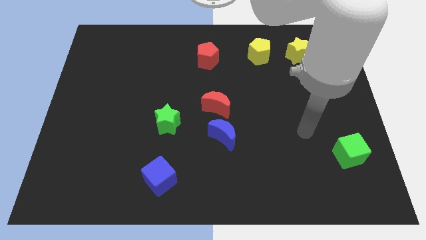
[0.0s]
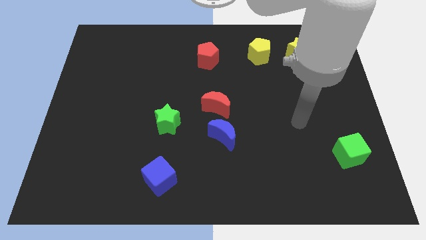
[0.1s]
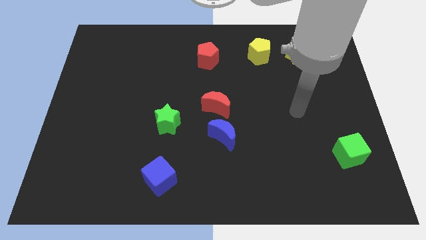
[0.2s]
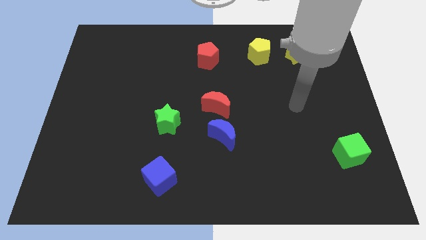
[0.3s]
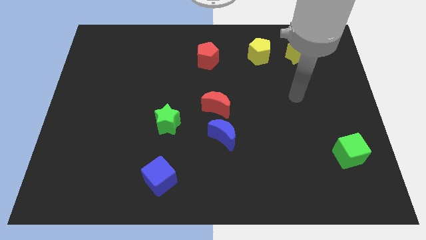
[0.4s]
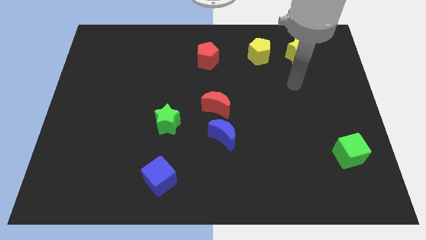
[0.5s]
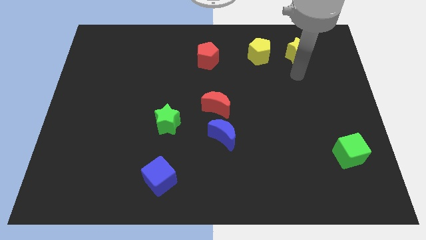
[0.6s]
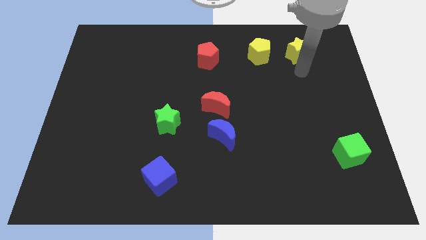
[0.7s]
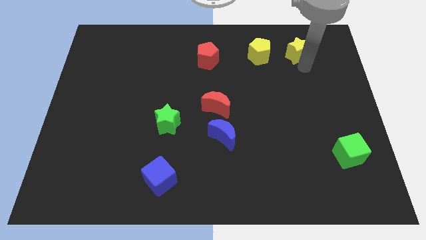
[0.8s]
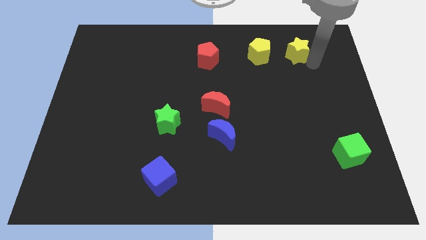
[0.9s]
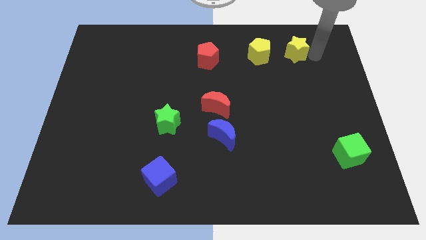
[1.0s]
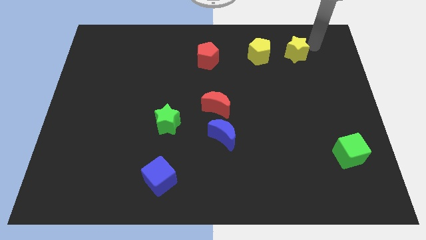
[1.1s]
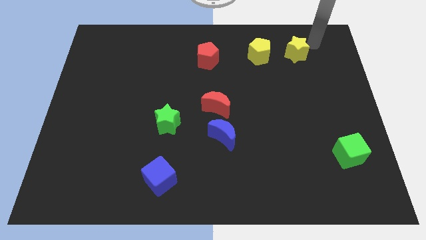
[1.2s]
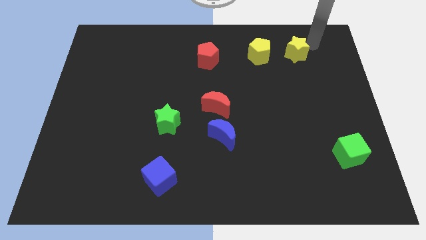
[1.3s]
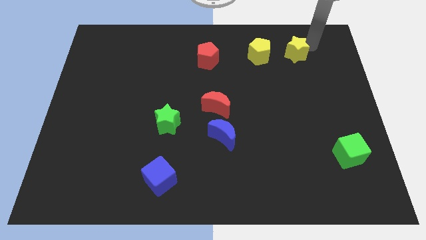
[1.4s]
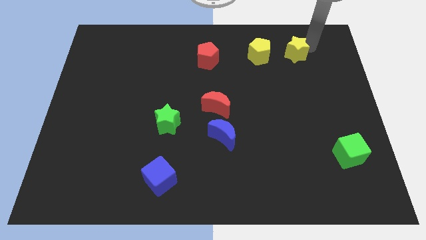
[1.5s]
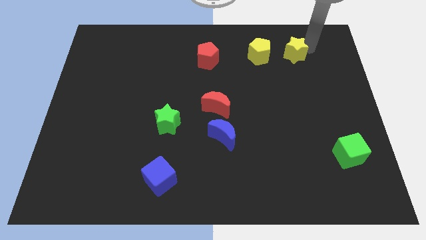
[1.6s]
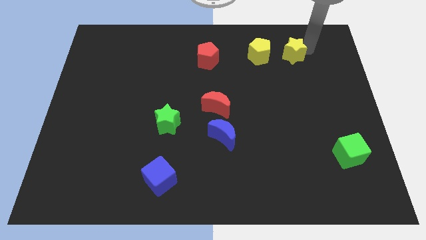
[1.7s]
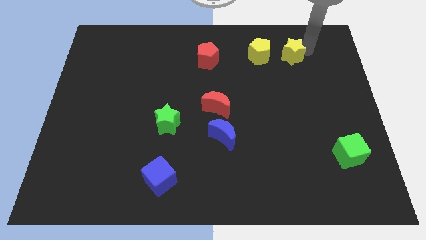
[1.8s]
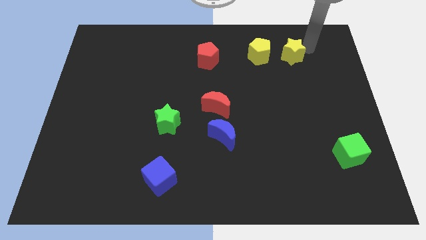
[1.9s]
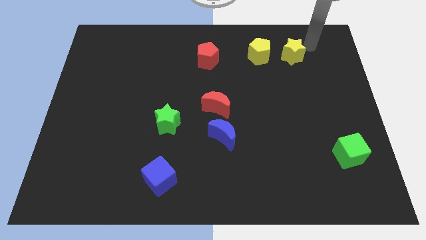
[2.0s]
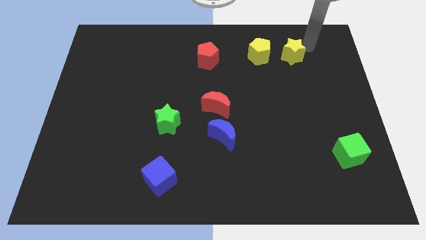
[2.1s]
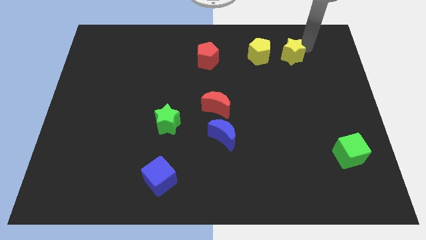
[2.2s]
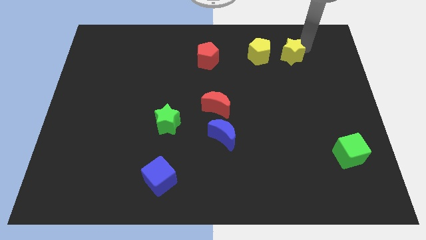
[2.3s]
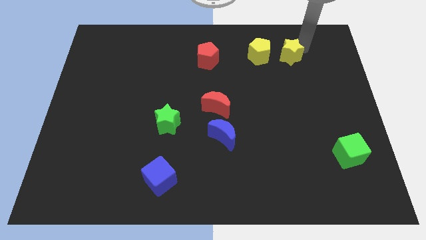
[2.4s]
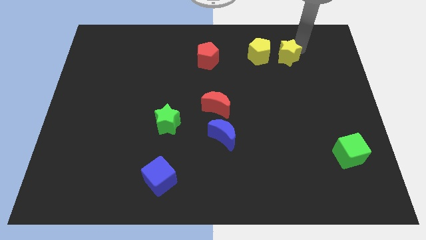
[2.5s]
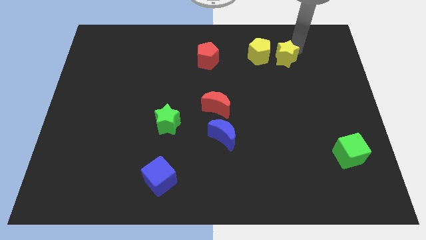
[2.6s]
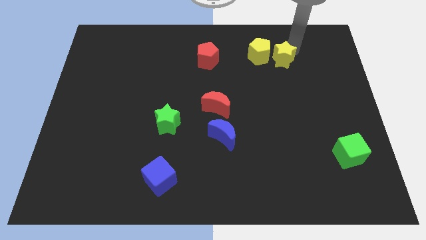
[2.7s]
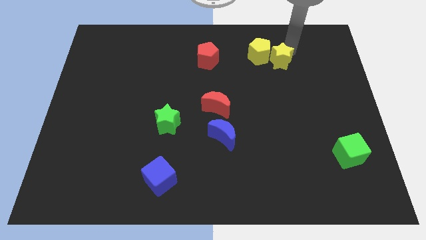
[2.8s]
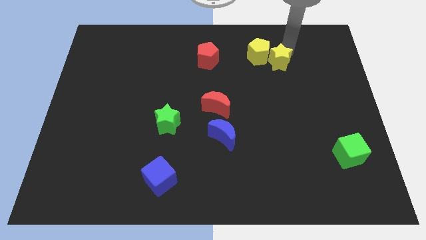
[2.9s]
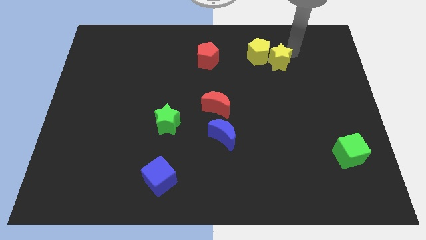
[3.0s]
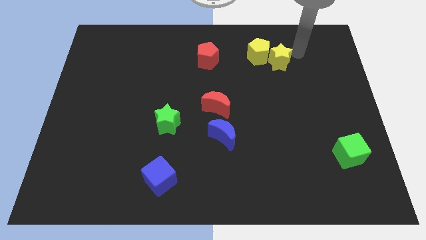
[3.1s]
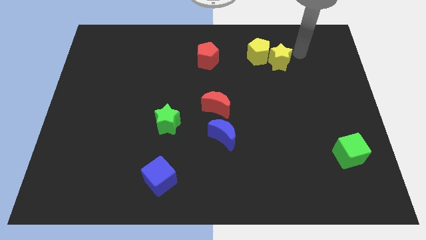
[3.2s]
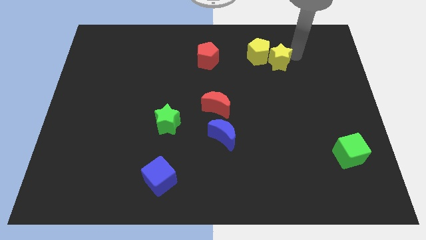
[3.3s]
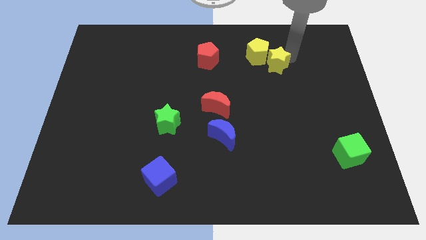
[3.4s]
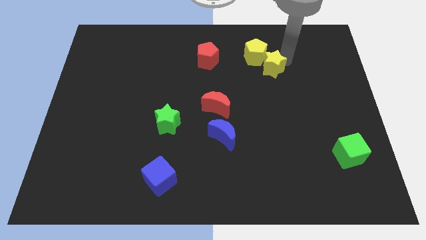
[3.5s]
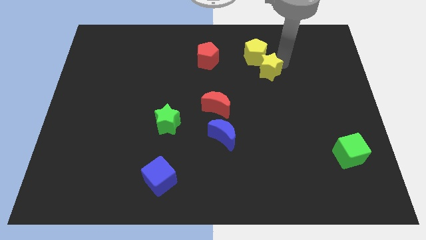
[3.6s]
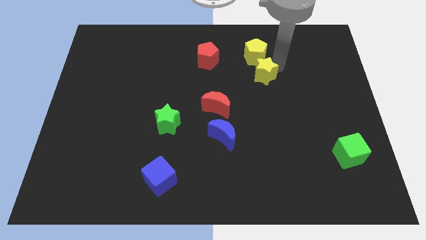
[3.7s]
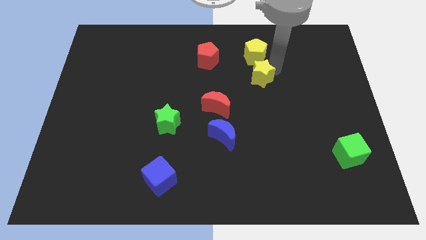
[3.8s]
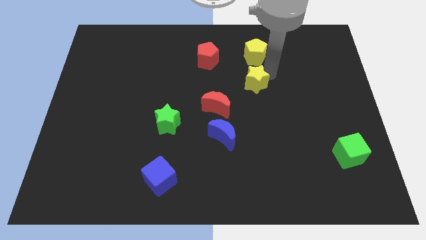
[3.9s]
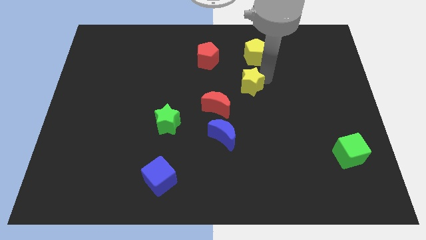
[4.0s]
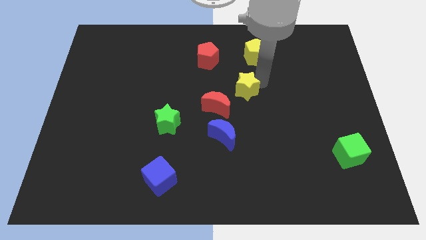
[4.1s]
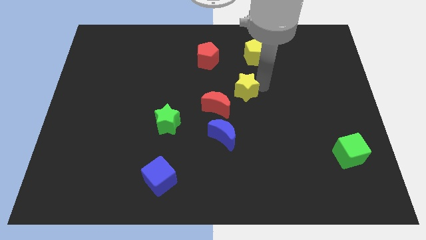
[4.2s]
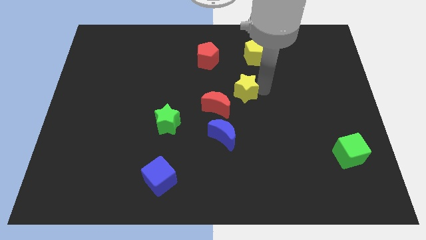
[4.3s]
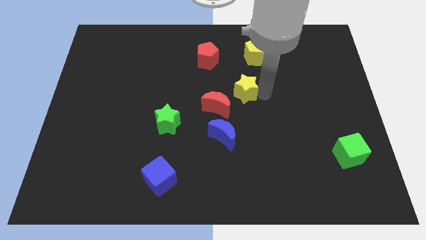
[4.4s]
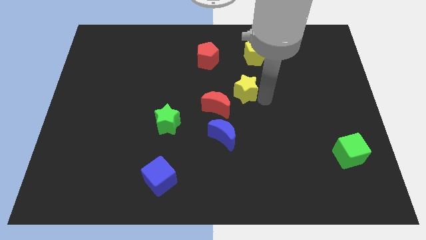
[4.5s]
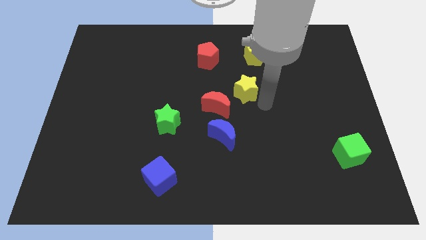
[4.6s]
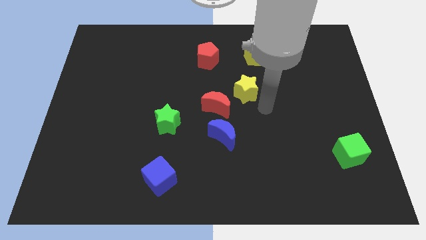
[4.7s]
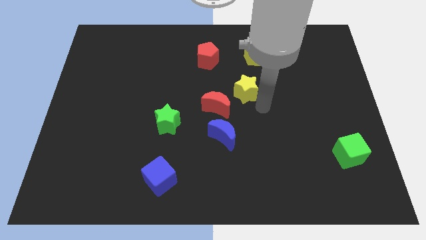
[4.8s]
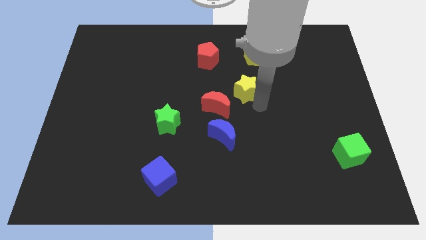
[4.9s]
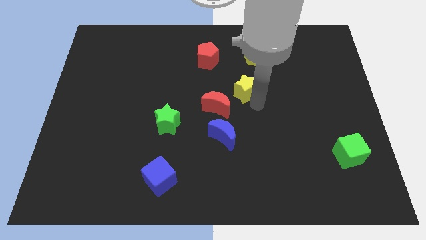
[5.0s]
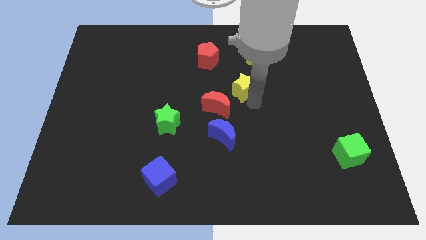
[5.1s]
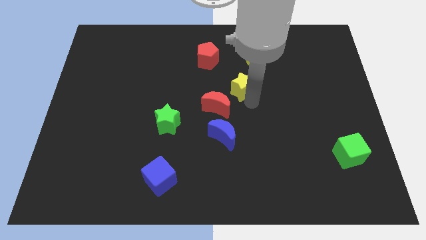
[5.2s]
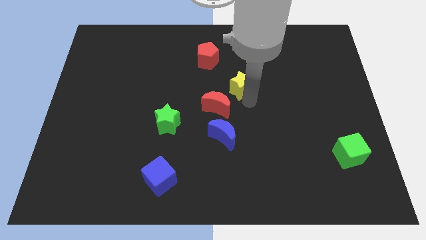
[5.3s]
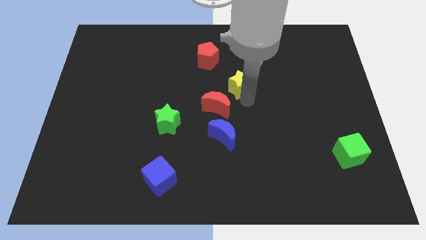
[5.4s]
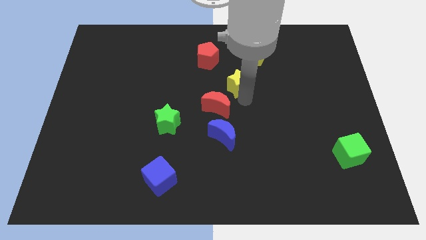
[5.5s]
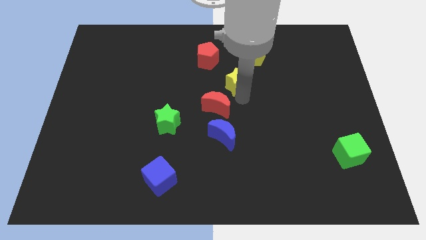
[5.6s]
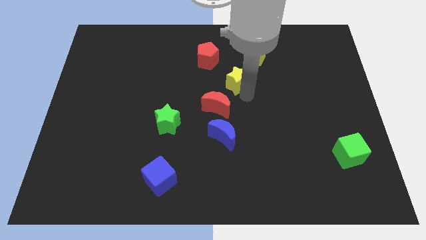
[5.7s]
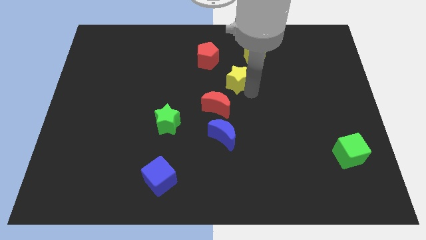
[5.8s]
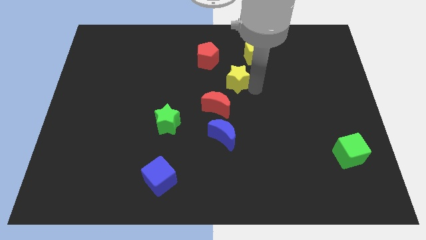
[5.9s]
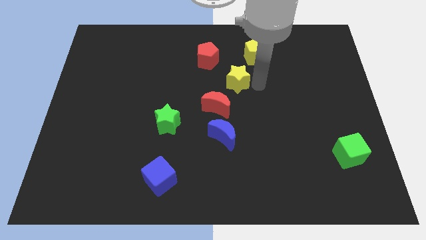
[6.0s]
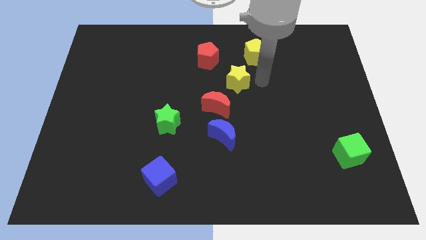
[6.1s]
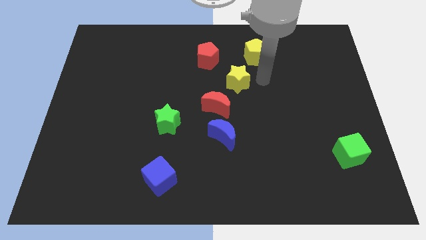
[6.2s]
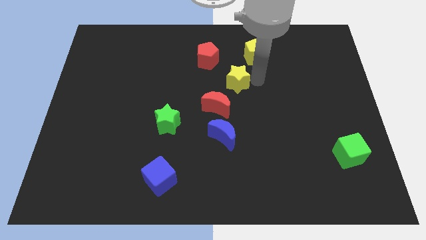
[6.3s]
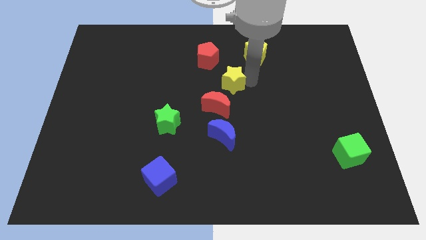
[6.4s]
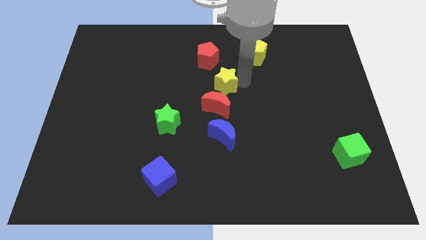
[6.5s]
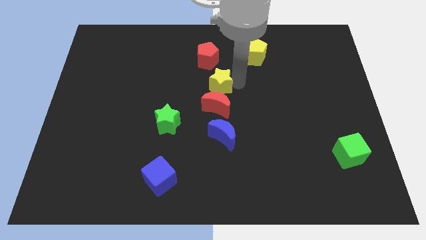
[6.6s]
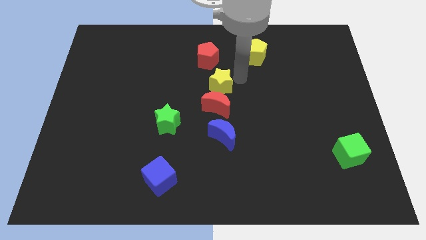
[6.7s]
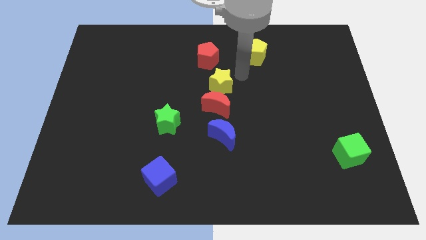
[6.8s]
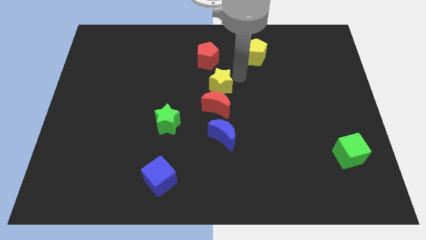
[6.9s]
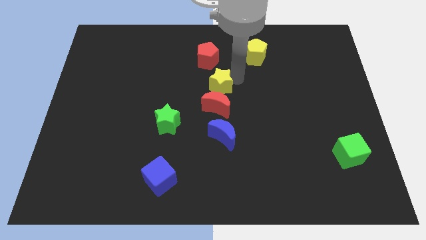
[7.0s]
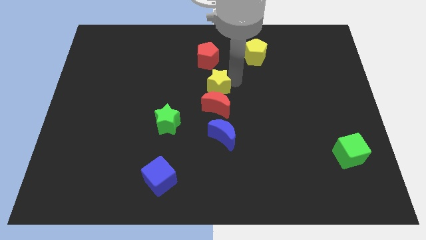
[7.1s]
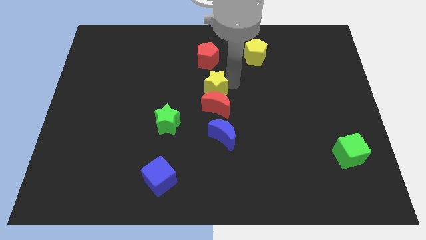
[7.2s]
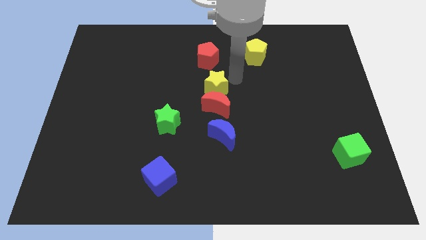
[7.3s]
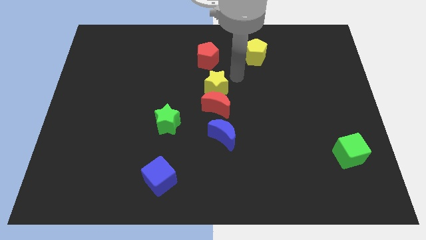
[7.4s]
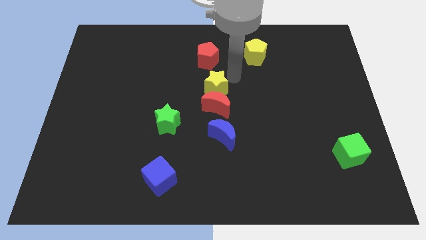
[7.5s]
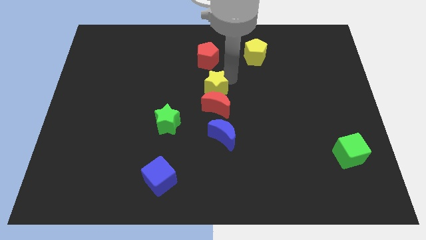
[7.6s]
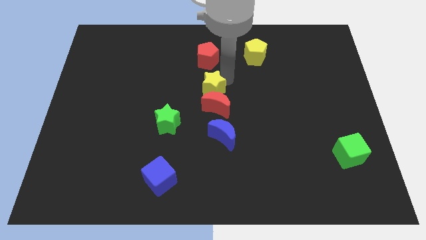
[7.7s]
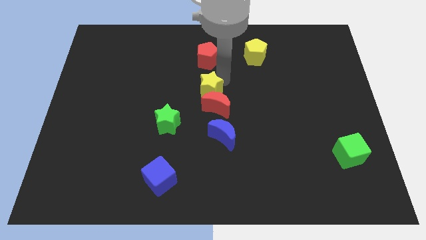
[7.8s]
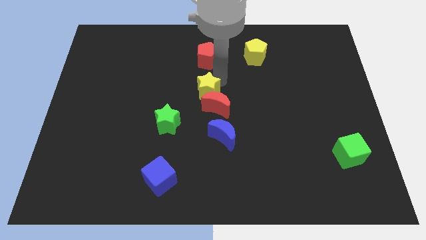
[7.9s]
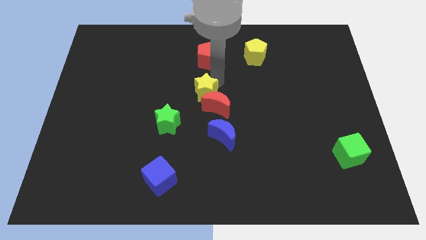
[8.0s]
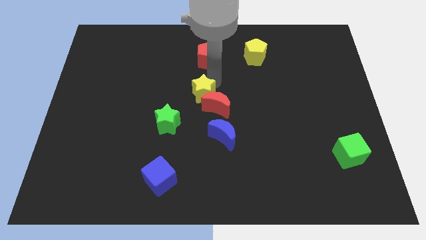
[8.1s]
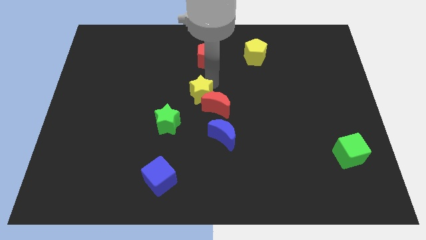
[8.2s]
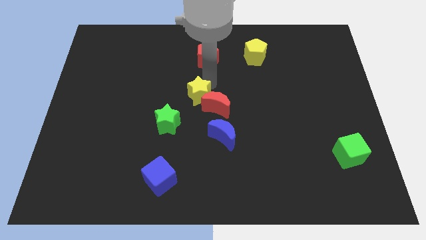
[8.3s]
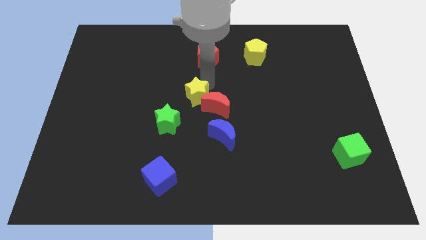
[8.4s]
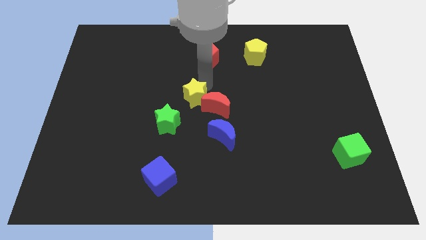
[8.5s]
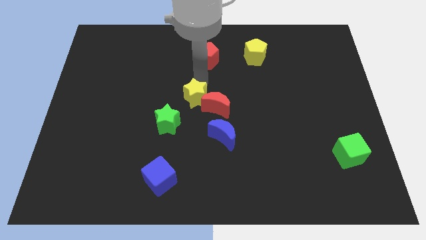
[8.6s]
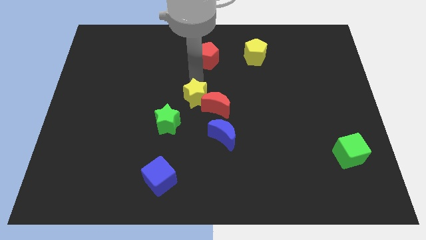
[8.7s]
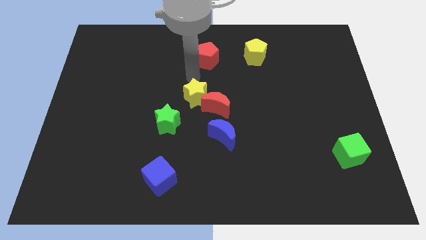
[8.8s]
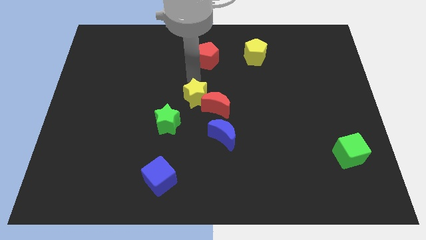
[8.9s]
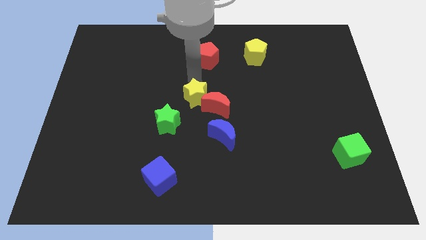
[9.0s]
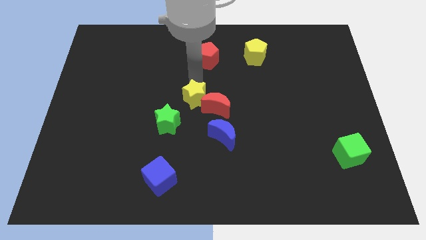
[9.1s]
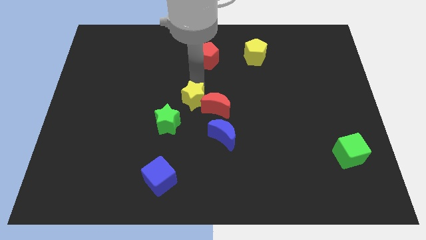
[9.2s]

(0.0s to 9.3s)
slide the yellow star diagonally up and to the left of the blue moon
